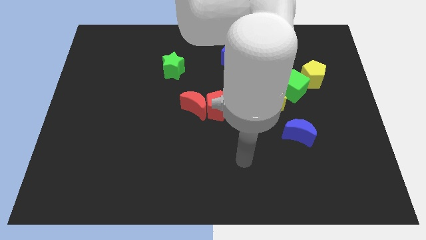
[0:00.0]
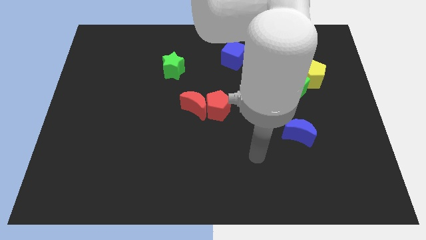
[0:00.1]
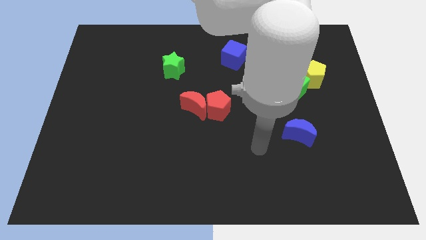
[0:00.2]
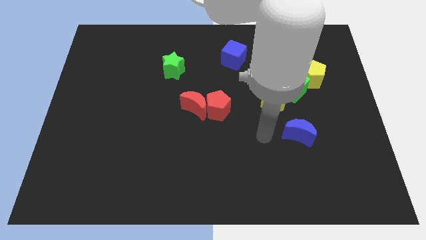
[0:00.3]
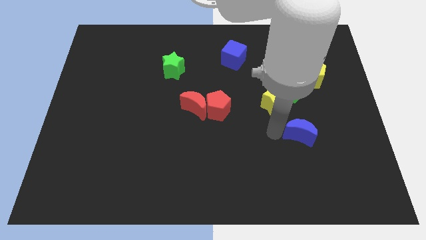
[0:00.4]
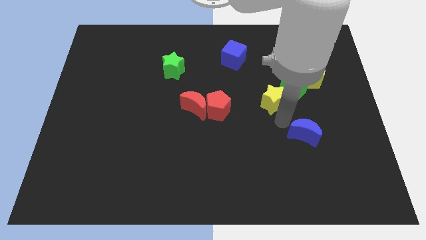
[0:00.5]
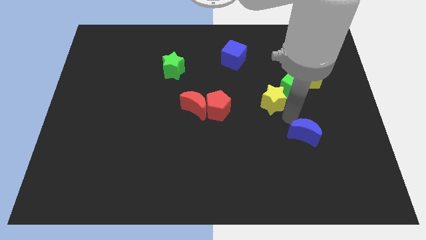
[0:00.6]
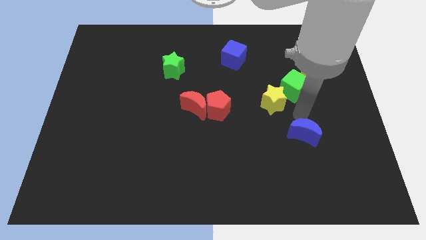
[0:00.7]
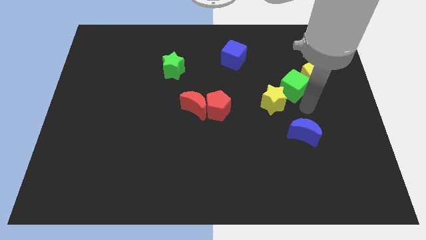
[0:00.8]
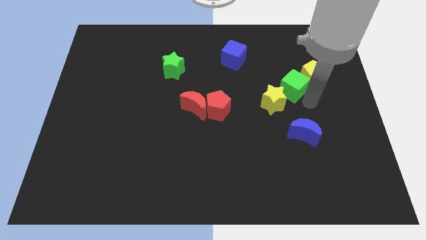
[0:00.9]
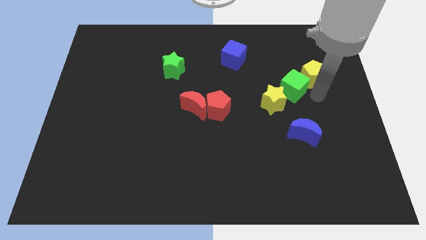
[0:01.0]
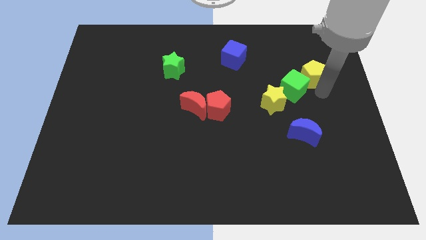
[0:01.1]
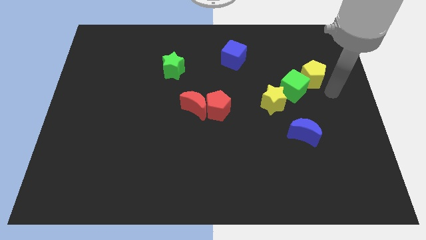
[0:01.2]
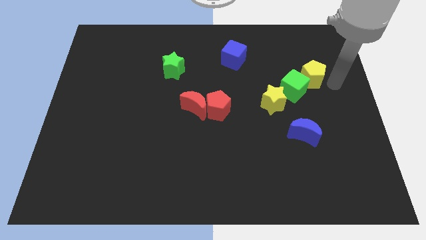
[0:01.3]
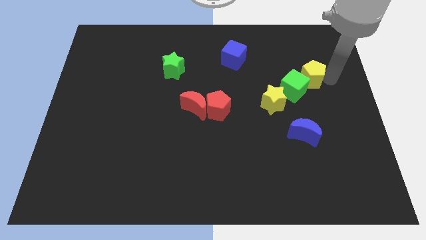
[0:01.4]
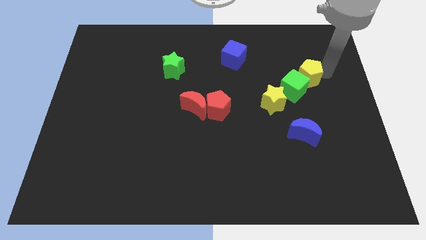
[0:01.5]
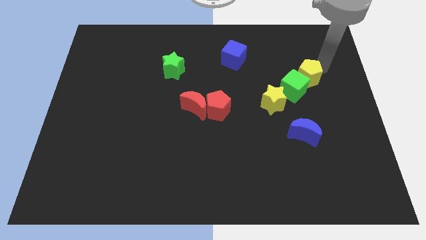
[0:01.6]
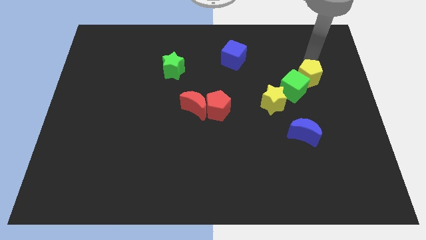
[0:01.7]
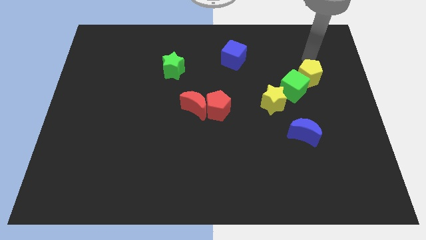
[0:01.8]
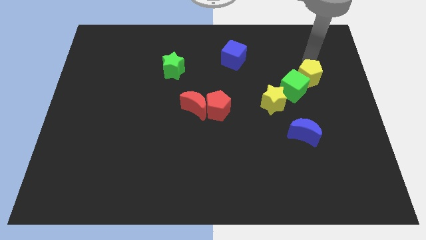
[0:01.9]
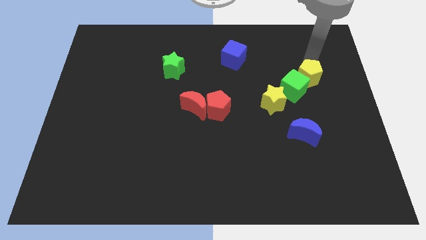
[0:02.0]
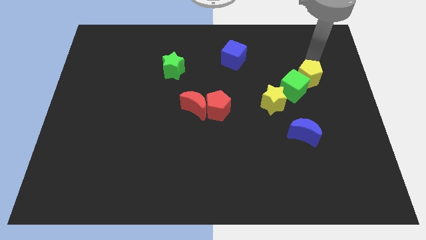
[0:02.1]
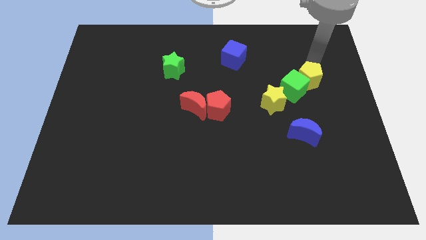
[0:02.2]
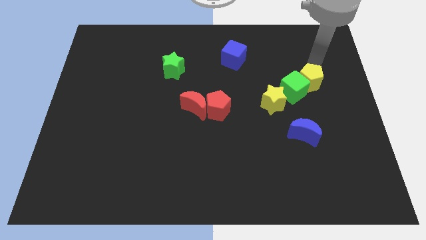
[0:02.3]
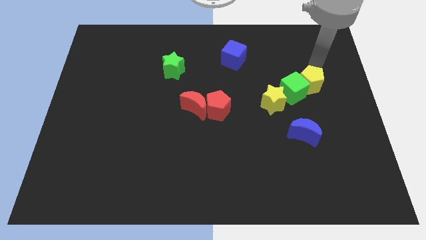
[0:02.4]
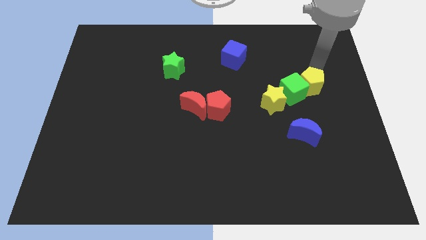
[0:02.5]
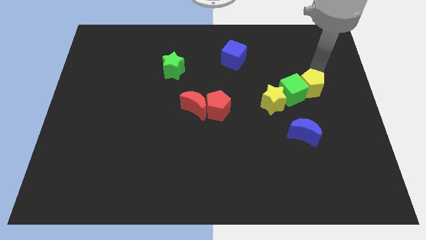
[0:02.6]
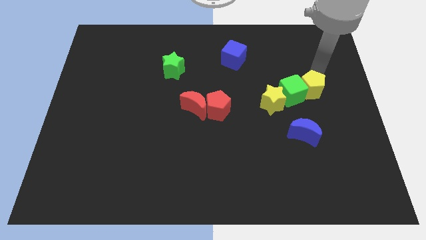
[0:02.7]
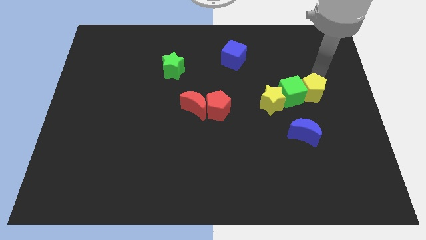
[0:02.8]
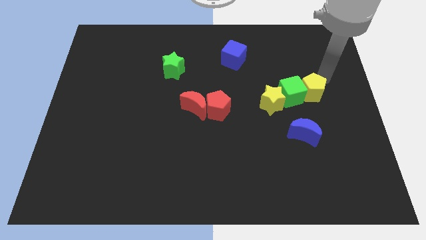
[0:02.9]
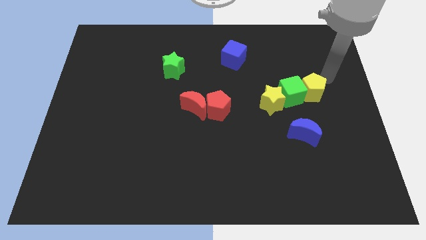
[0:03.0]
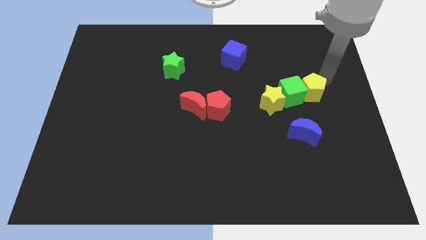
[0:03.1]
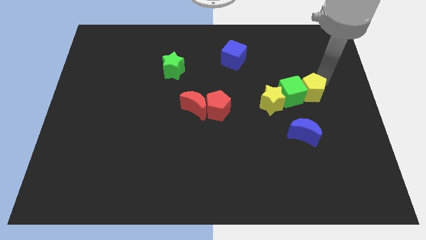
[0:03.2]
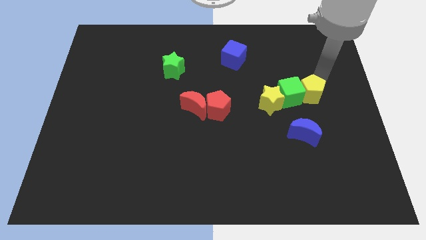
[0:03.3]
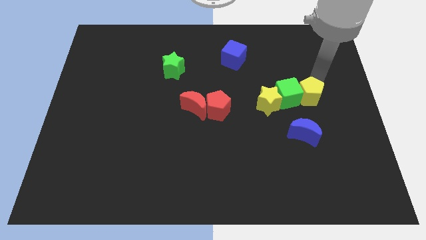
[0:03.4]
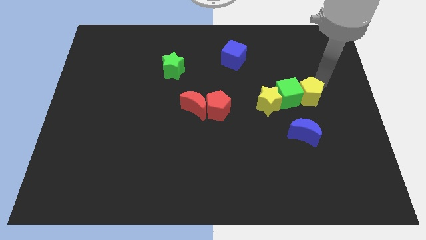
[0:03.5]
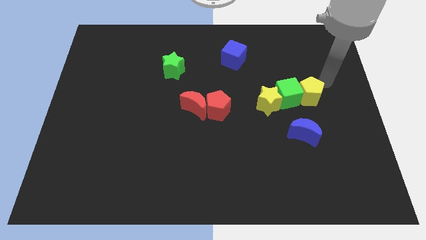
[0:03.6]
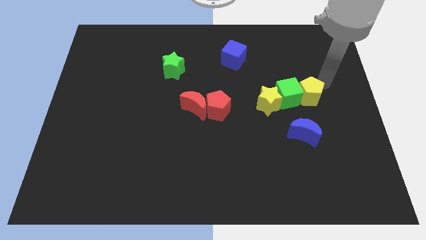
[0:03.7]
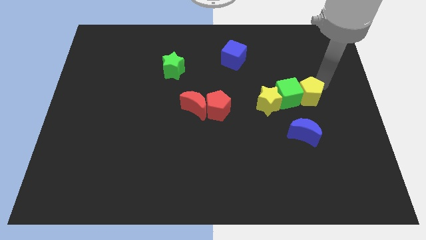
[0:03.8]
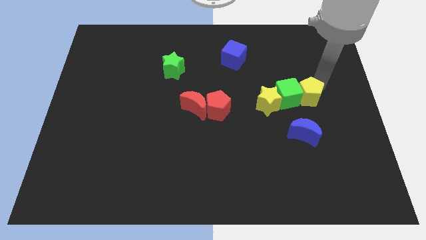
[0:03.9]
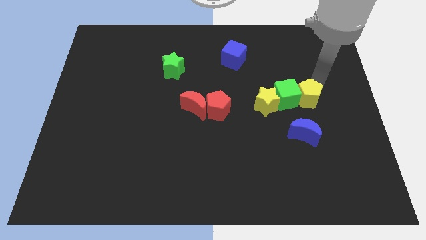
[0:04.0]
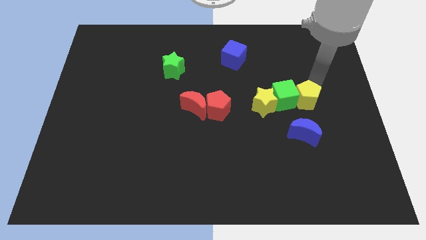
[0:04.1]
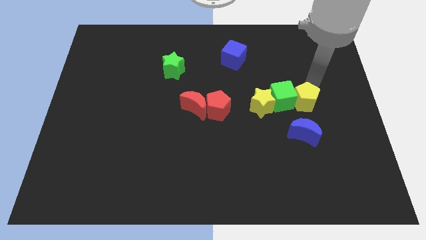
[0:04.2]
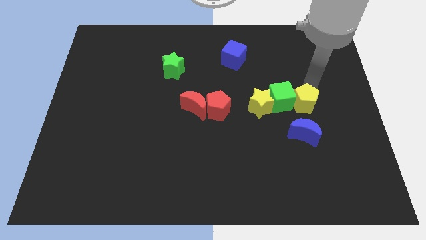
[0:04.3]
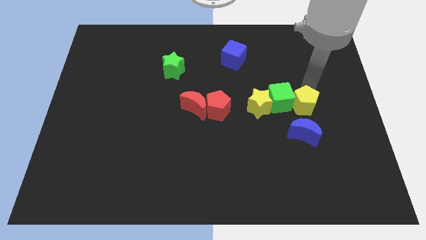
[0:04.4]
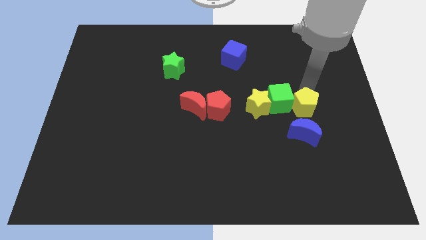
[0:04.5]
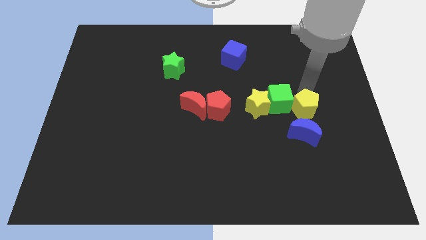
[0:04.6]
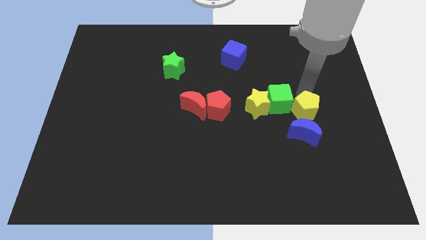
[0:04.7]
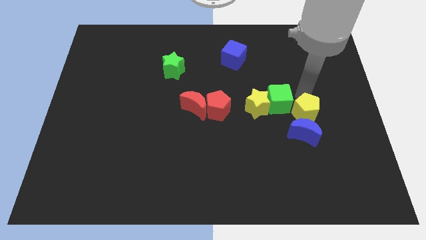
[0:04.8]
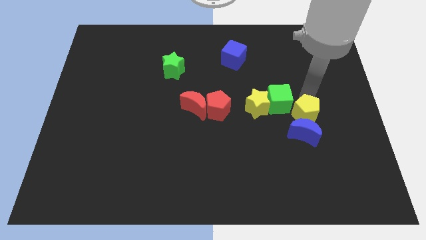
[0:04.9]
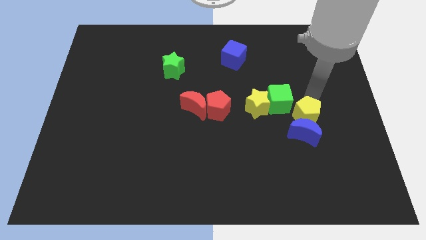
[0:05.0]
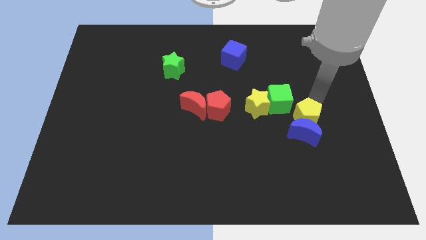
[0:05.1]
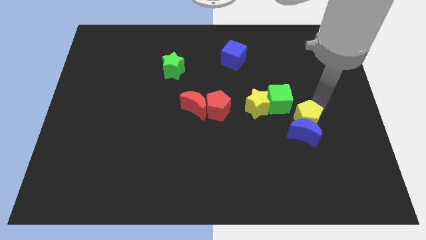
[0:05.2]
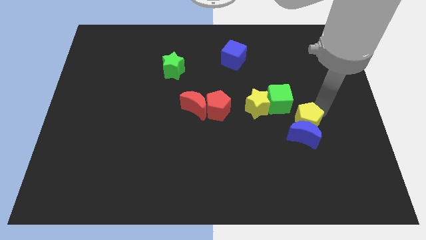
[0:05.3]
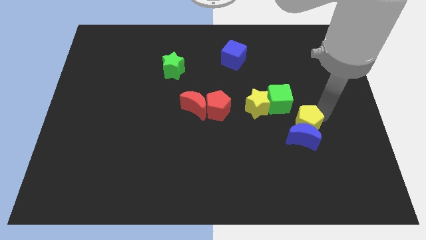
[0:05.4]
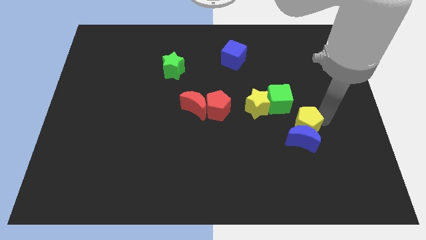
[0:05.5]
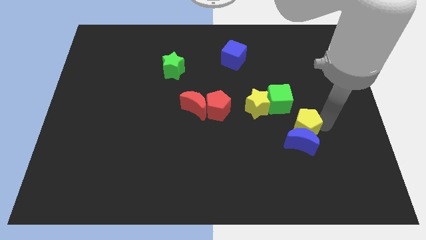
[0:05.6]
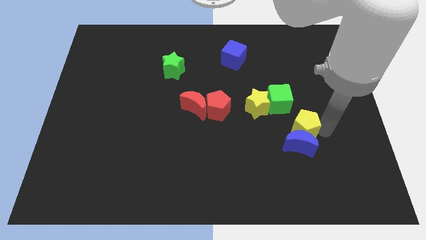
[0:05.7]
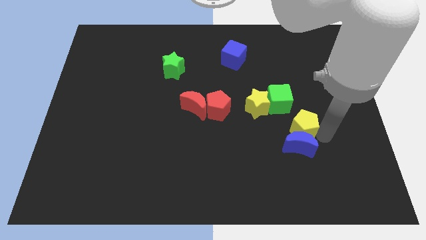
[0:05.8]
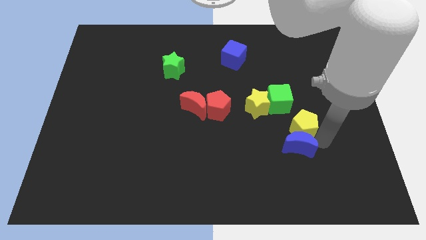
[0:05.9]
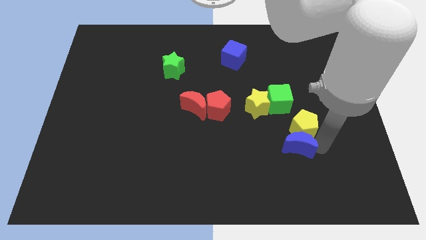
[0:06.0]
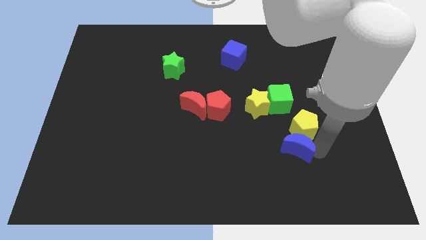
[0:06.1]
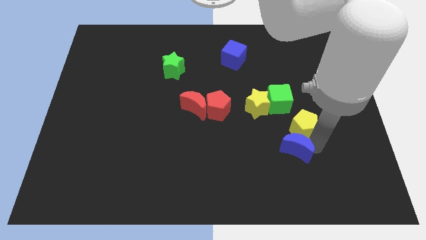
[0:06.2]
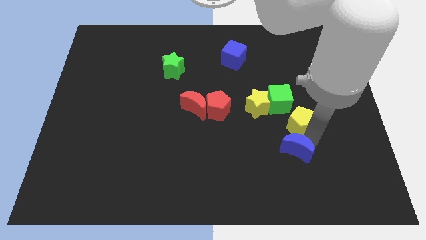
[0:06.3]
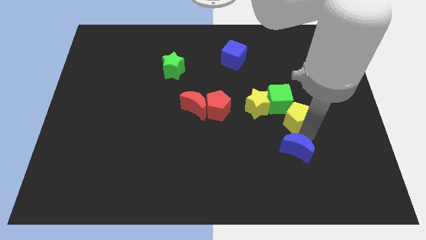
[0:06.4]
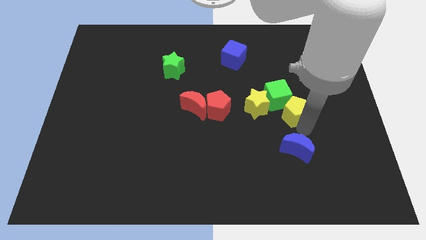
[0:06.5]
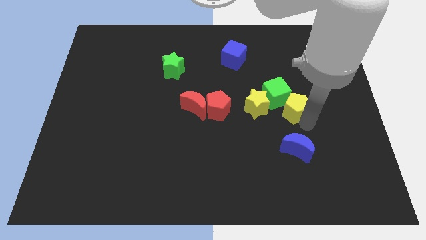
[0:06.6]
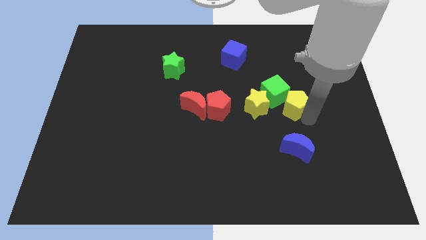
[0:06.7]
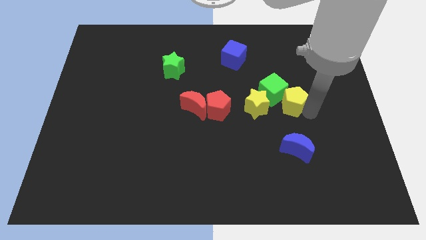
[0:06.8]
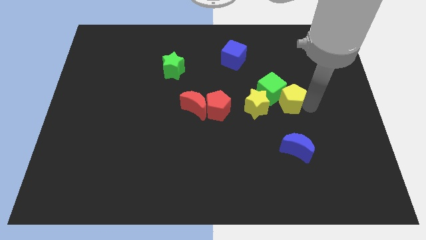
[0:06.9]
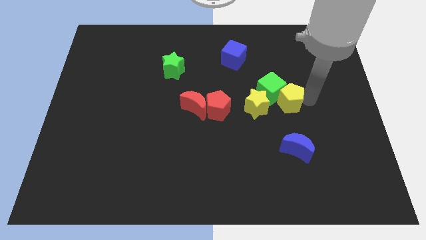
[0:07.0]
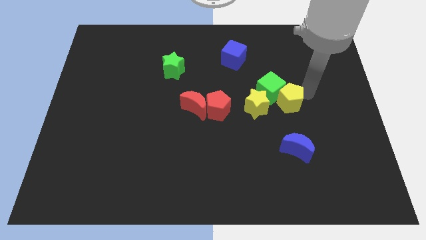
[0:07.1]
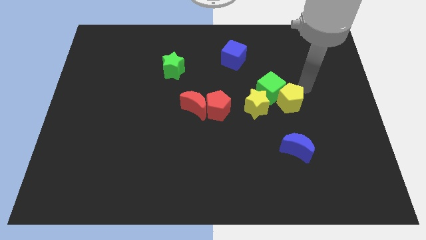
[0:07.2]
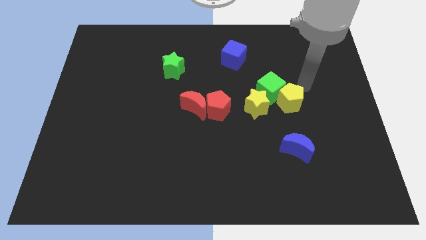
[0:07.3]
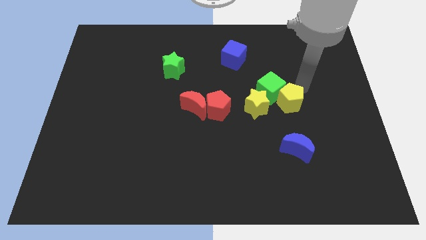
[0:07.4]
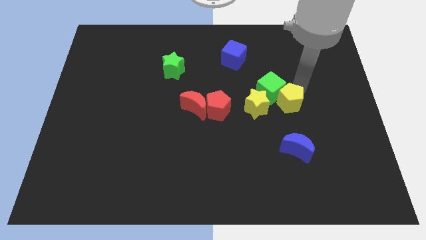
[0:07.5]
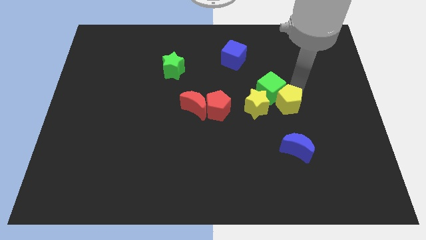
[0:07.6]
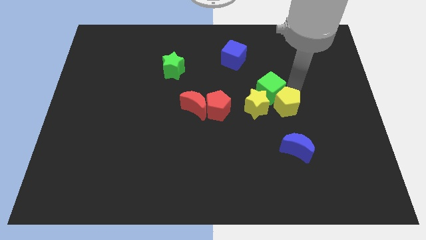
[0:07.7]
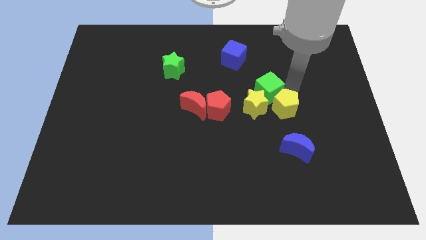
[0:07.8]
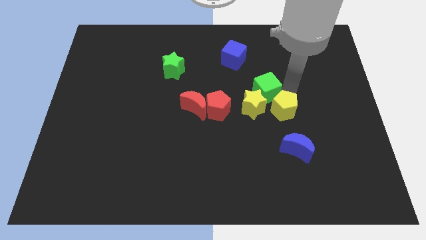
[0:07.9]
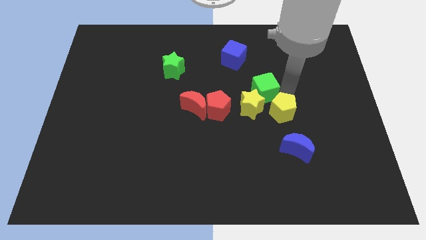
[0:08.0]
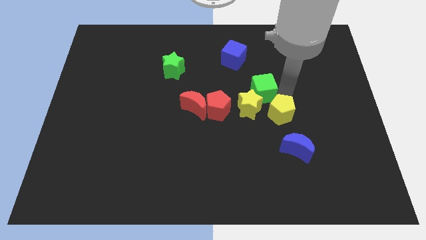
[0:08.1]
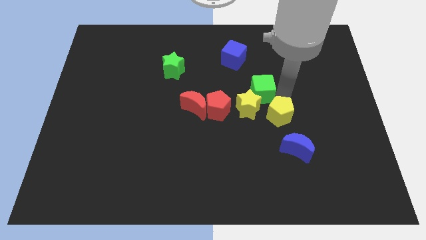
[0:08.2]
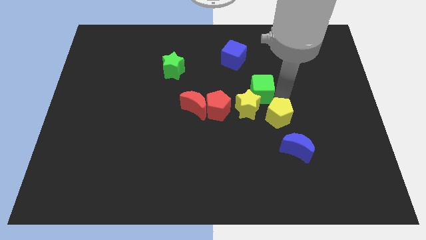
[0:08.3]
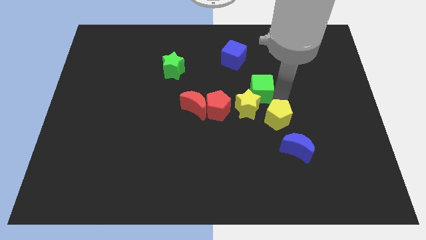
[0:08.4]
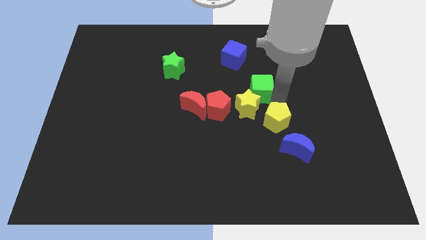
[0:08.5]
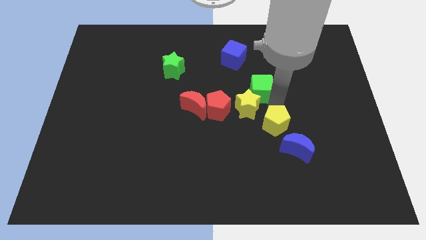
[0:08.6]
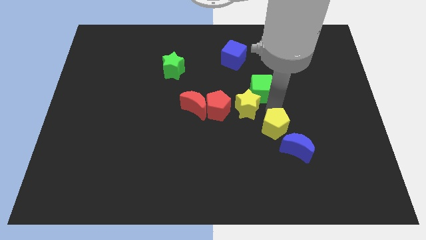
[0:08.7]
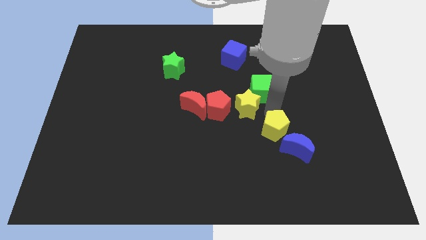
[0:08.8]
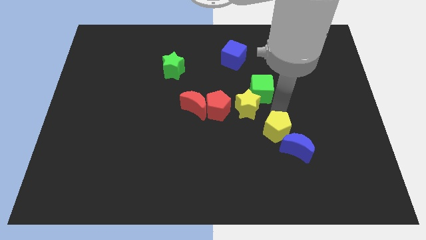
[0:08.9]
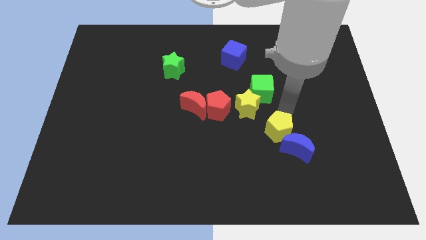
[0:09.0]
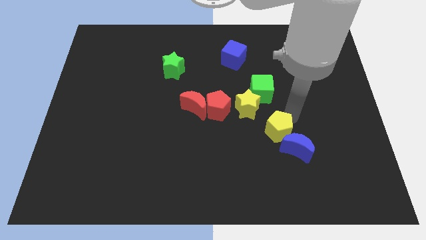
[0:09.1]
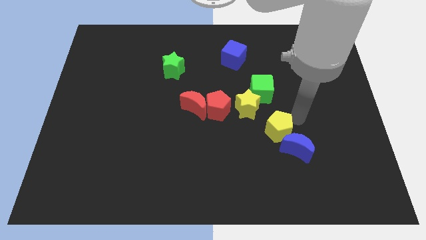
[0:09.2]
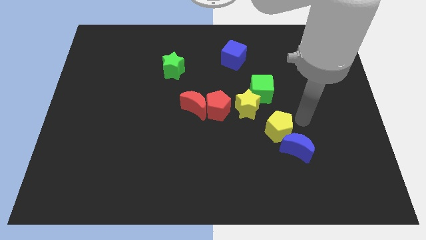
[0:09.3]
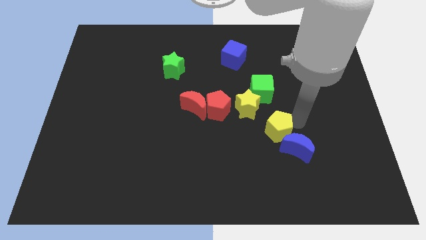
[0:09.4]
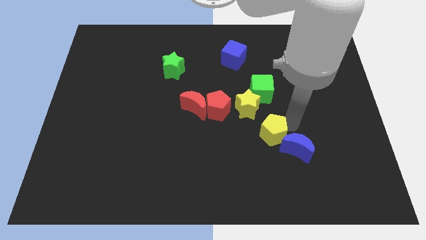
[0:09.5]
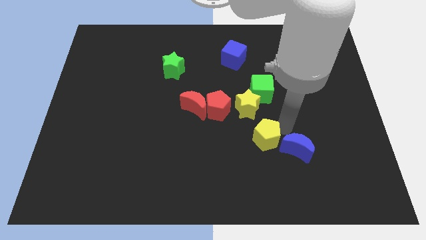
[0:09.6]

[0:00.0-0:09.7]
move the yellow pentagon downwards and then left
